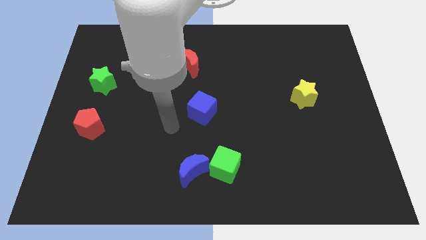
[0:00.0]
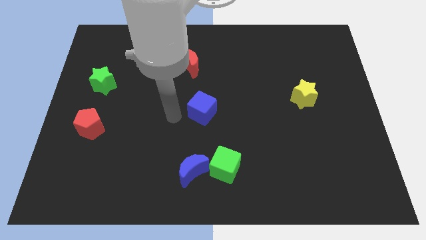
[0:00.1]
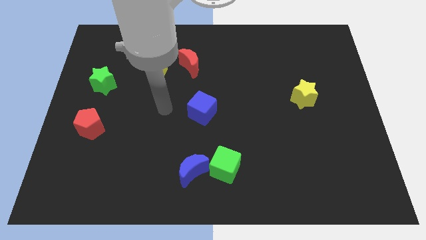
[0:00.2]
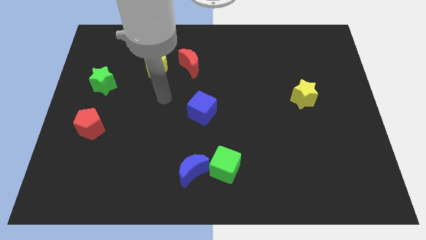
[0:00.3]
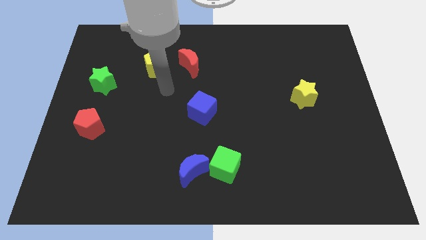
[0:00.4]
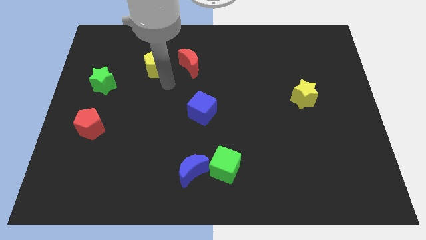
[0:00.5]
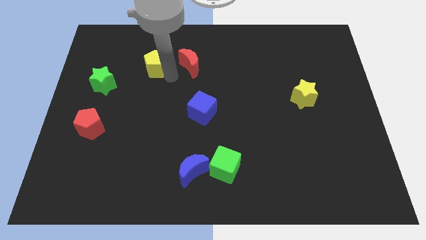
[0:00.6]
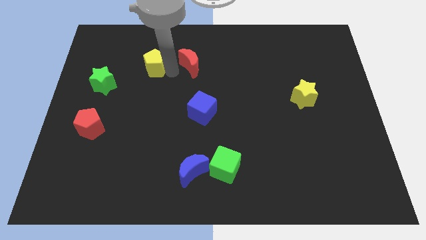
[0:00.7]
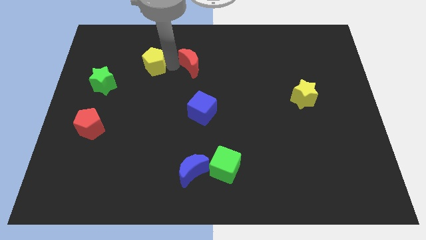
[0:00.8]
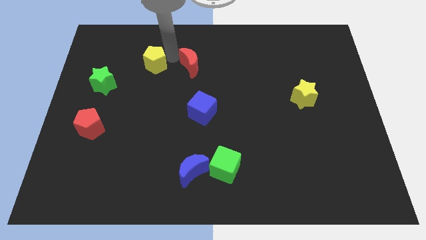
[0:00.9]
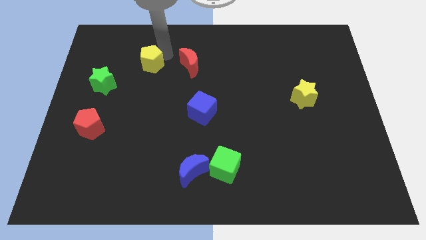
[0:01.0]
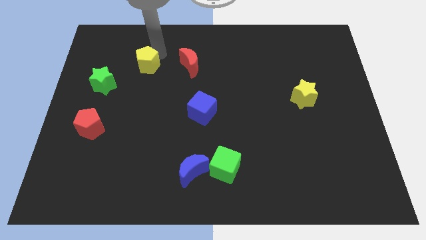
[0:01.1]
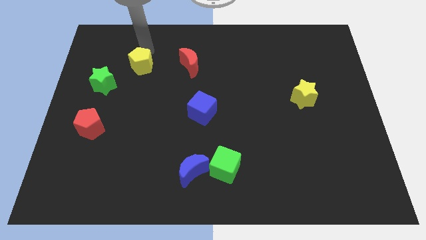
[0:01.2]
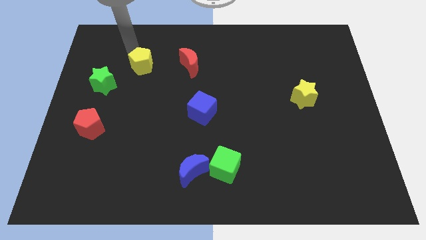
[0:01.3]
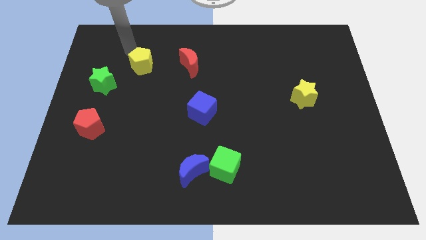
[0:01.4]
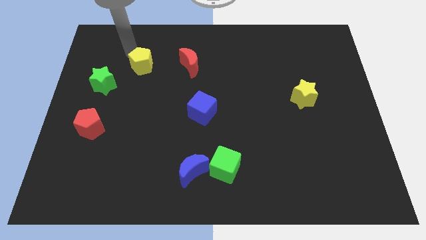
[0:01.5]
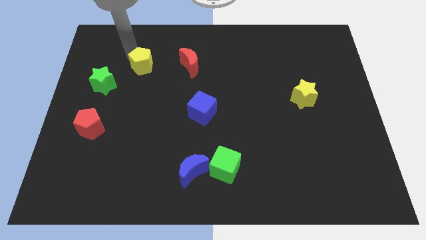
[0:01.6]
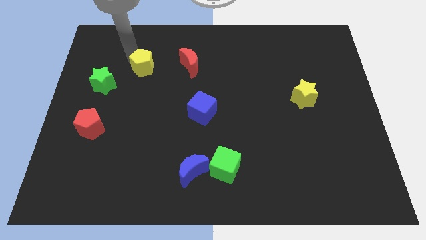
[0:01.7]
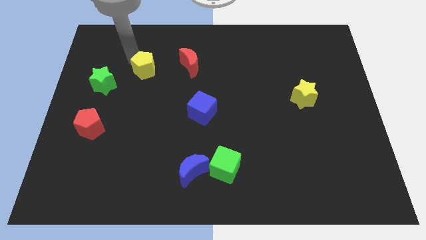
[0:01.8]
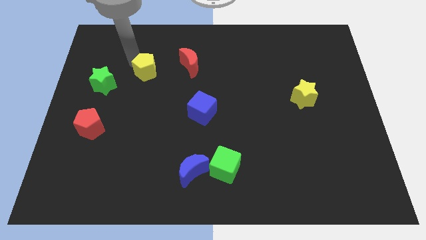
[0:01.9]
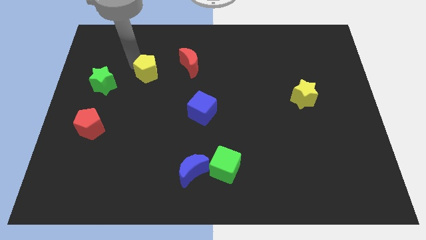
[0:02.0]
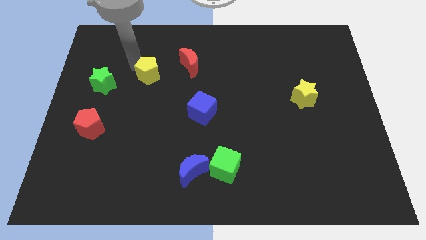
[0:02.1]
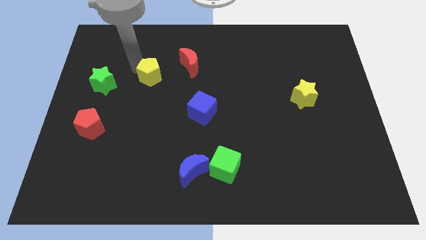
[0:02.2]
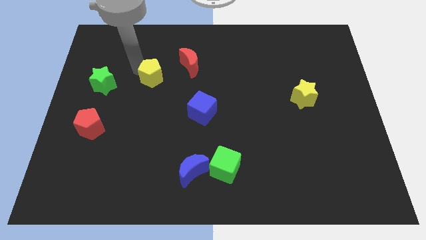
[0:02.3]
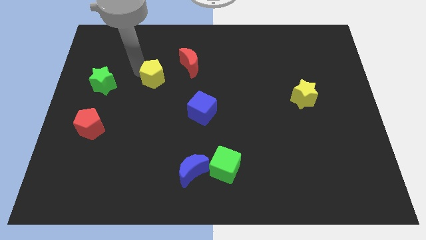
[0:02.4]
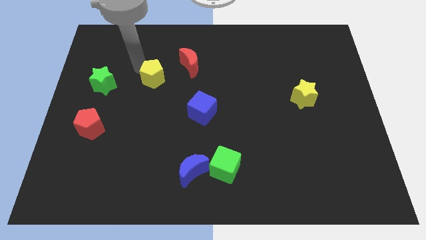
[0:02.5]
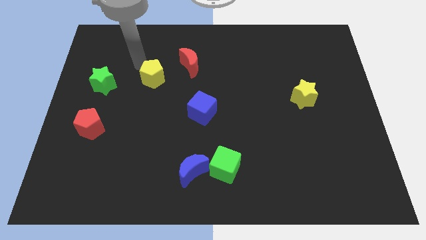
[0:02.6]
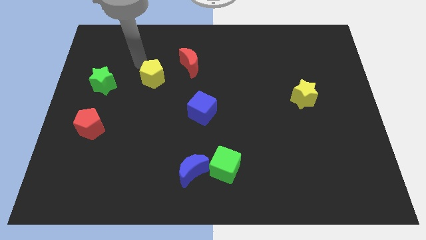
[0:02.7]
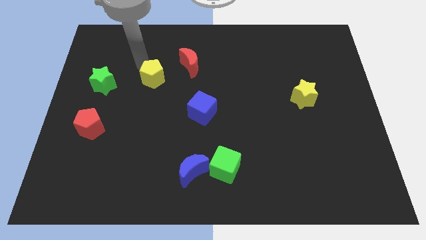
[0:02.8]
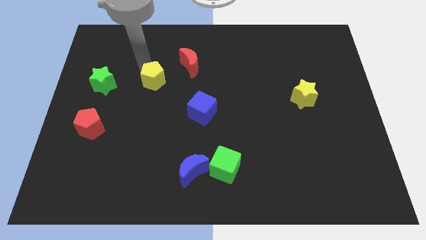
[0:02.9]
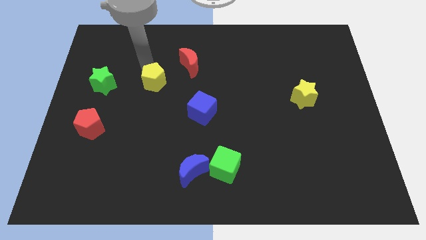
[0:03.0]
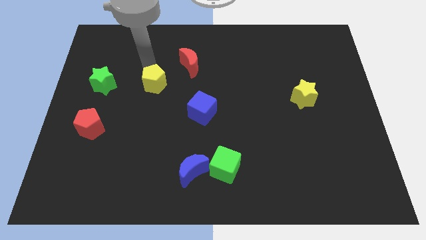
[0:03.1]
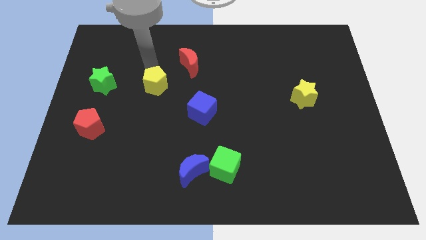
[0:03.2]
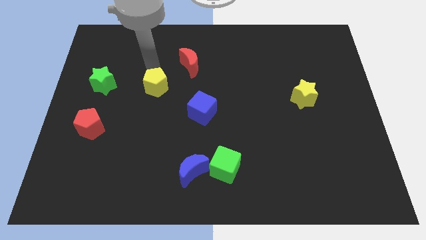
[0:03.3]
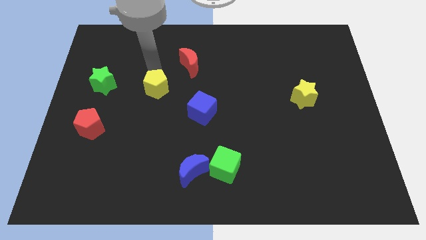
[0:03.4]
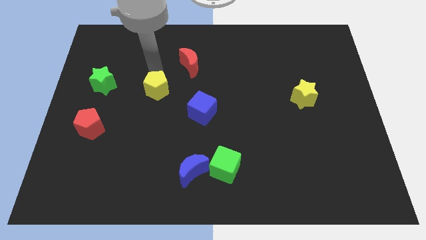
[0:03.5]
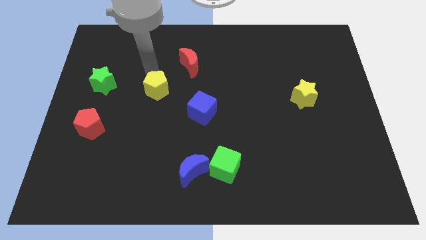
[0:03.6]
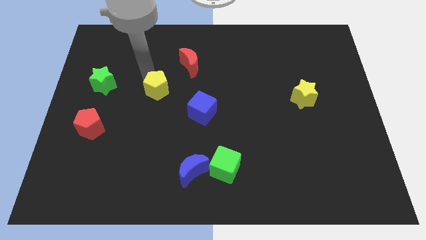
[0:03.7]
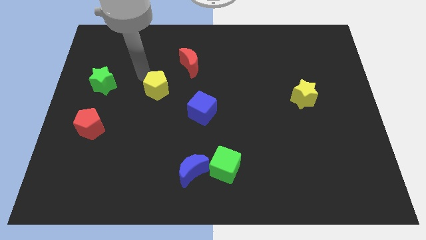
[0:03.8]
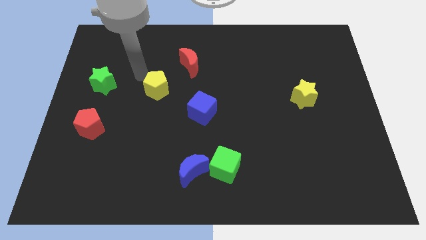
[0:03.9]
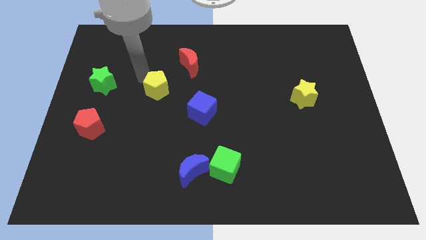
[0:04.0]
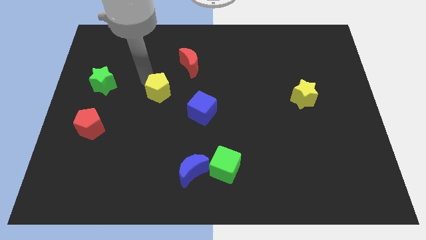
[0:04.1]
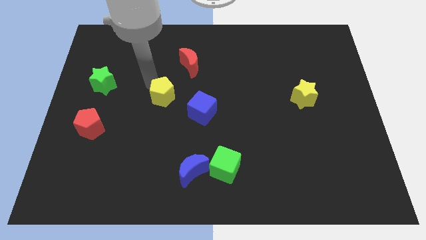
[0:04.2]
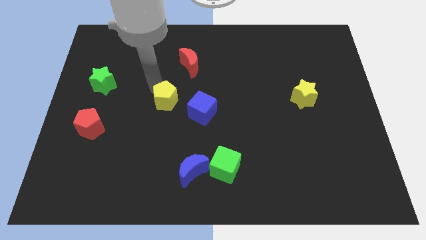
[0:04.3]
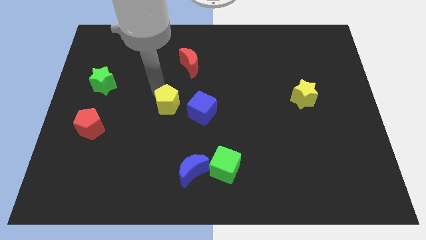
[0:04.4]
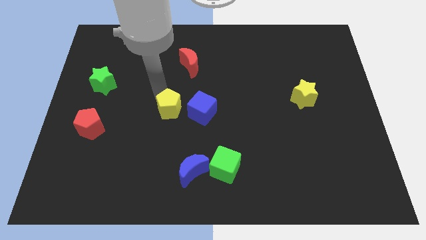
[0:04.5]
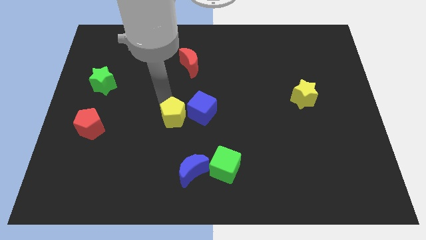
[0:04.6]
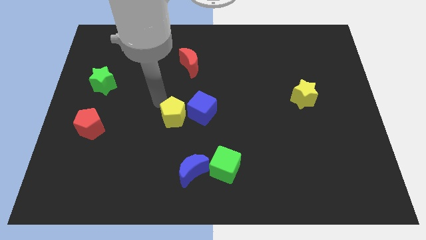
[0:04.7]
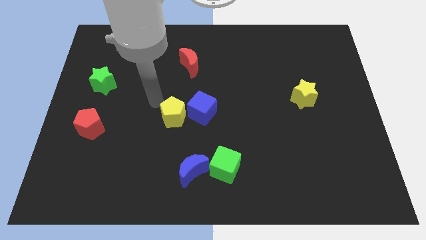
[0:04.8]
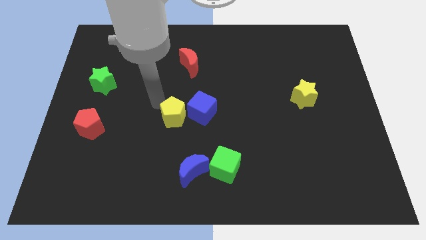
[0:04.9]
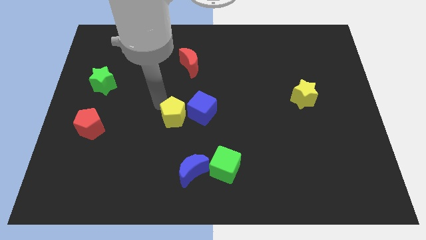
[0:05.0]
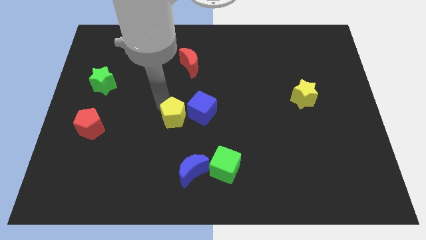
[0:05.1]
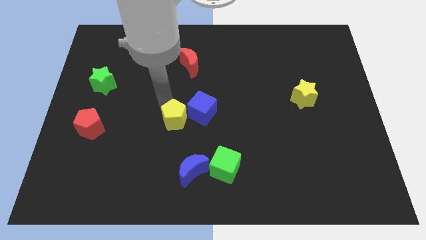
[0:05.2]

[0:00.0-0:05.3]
slide the yellow pentagon to the top of the blue moon
